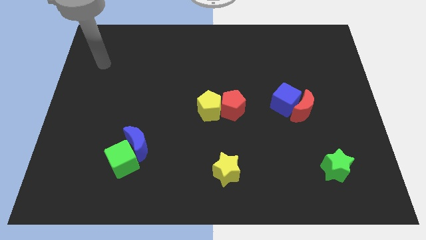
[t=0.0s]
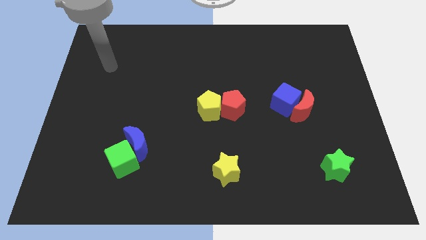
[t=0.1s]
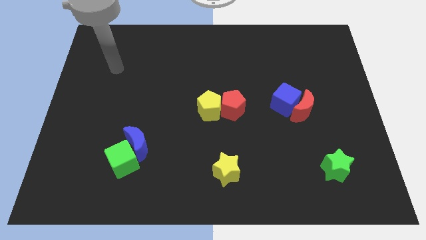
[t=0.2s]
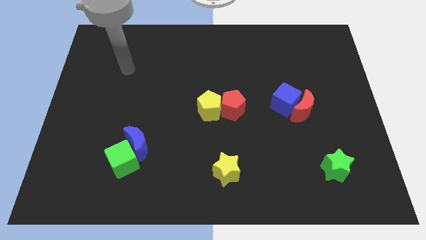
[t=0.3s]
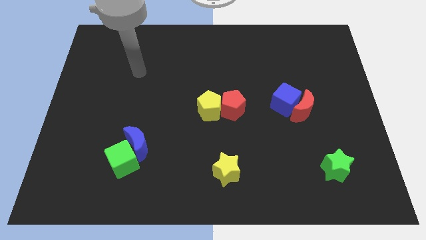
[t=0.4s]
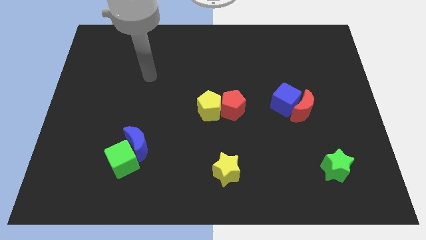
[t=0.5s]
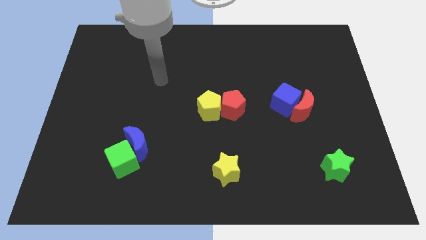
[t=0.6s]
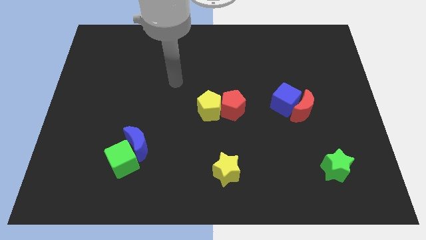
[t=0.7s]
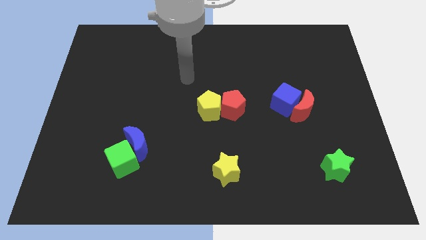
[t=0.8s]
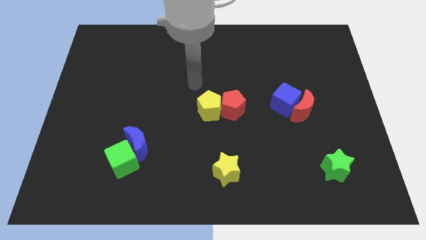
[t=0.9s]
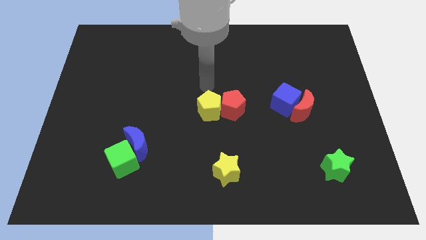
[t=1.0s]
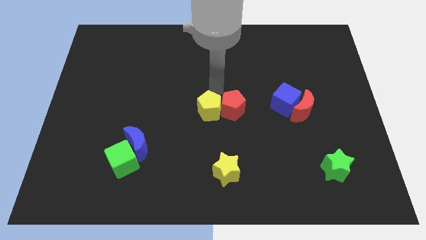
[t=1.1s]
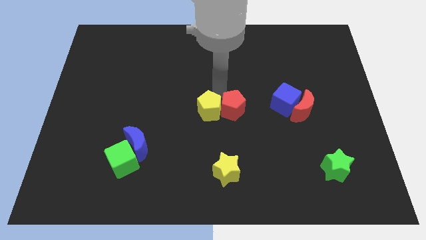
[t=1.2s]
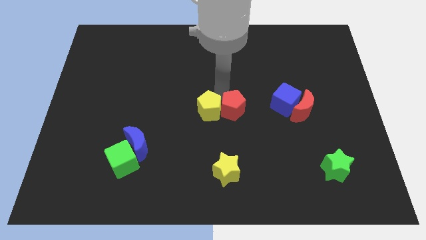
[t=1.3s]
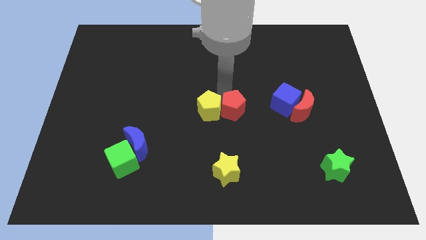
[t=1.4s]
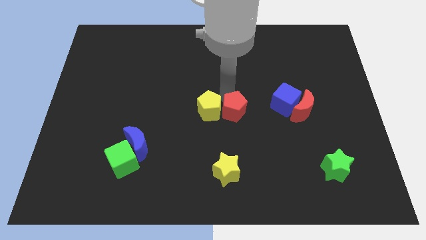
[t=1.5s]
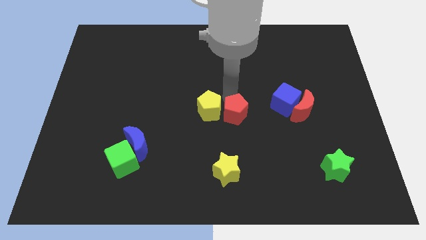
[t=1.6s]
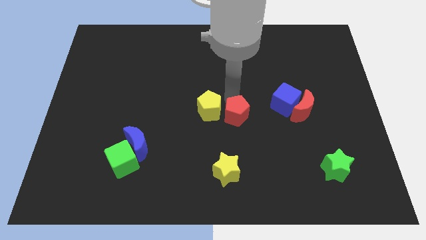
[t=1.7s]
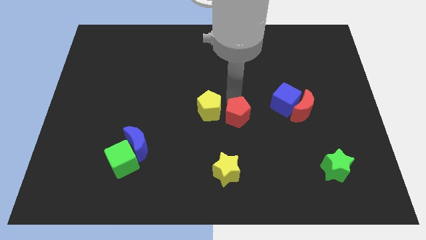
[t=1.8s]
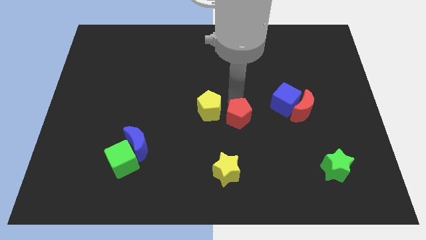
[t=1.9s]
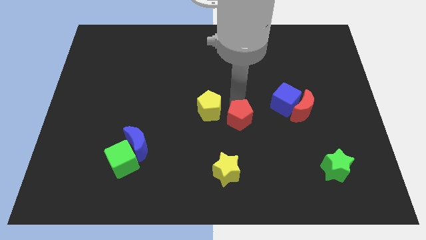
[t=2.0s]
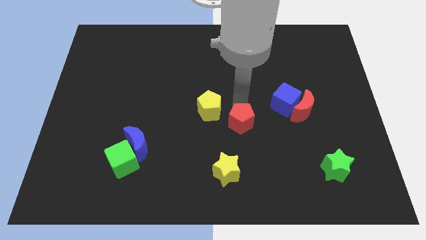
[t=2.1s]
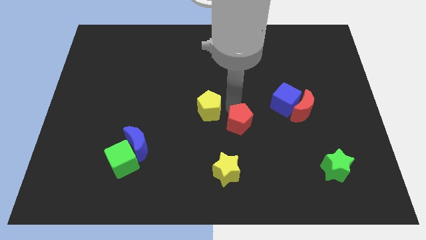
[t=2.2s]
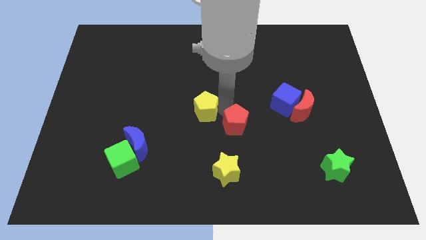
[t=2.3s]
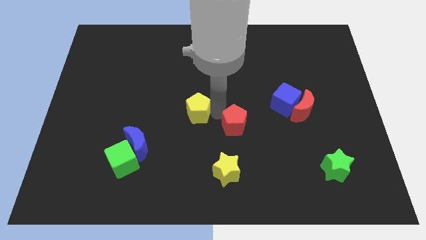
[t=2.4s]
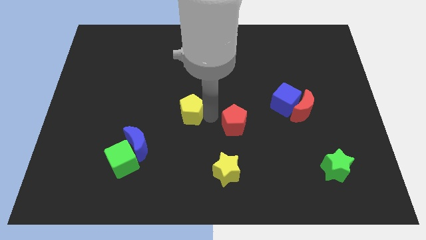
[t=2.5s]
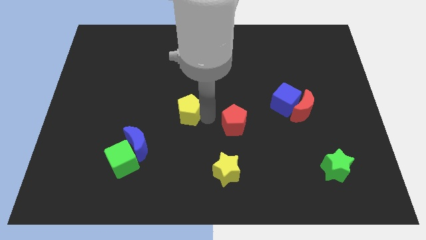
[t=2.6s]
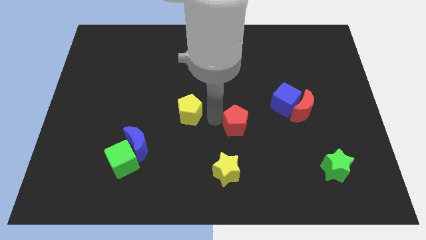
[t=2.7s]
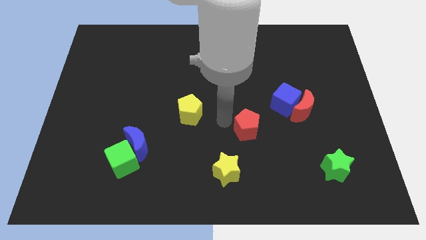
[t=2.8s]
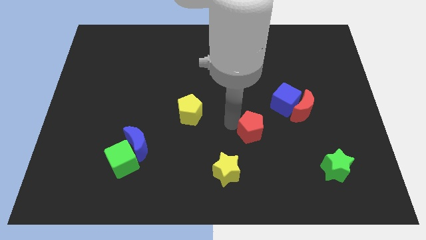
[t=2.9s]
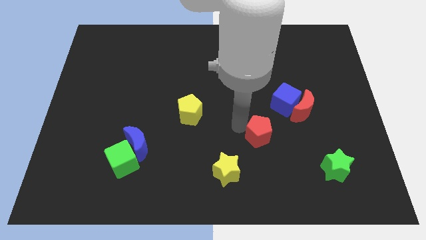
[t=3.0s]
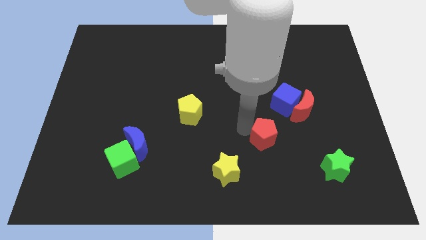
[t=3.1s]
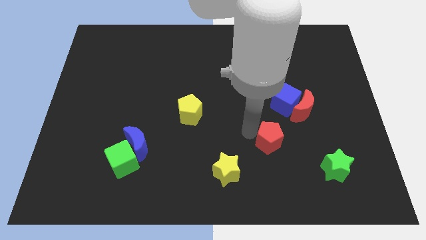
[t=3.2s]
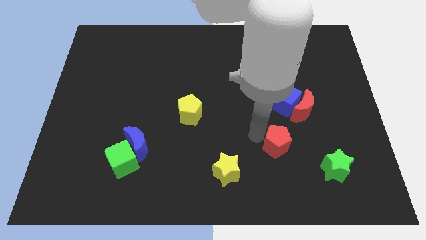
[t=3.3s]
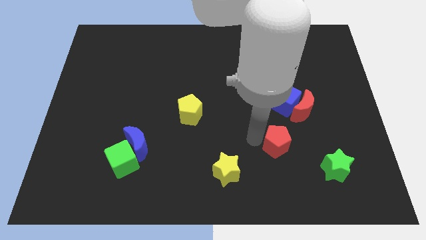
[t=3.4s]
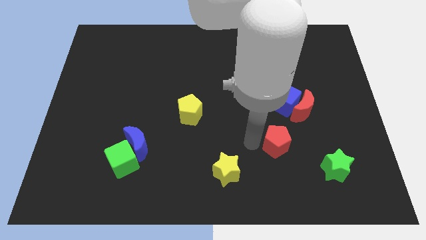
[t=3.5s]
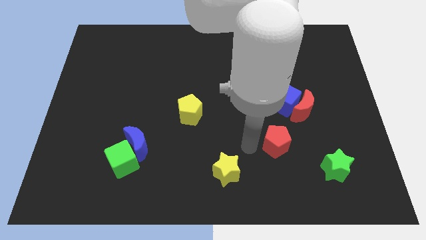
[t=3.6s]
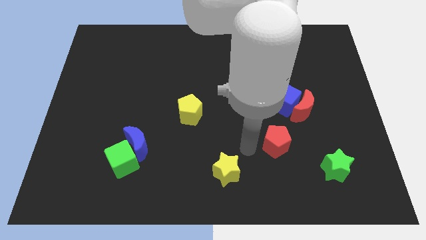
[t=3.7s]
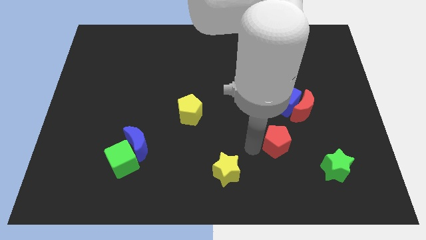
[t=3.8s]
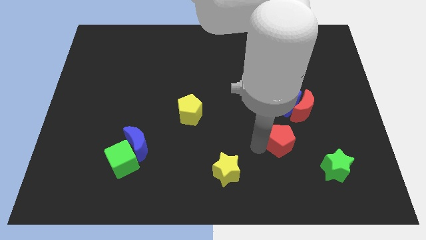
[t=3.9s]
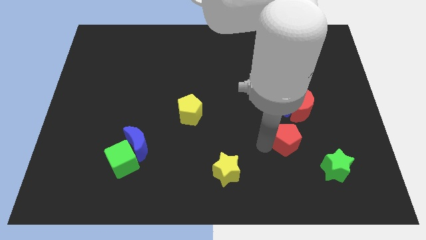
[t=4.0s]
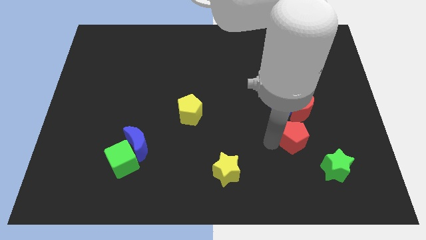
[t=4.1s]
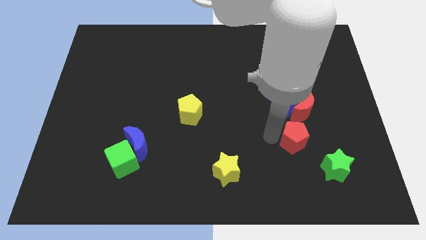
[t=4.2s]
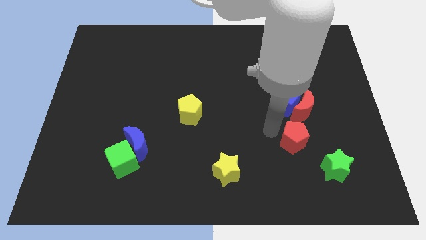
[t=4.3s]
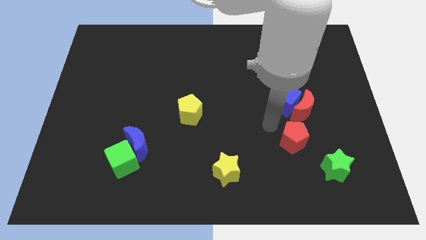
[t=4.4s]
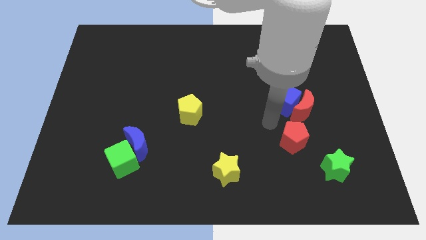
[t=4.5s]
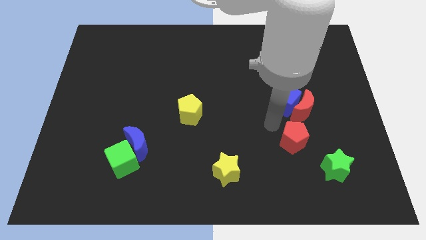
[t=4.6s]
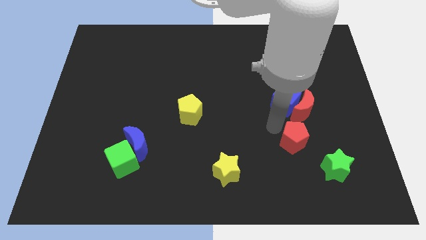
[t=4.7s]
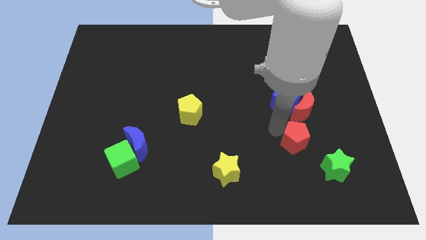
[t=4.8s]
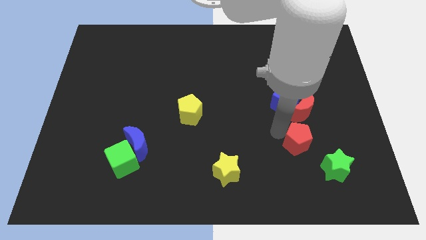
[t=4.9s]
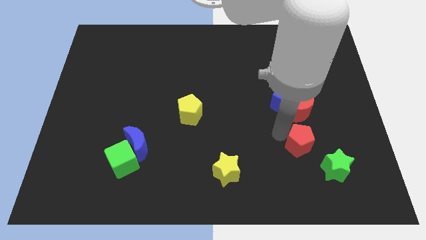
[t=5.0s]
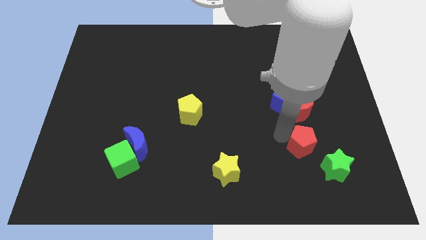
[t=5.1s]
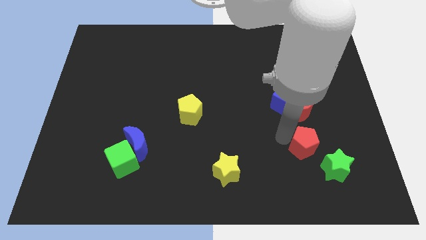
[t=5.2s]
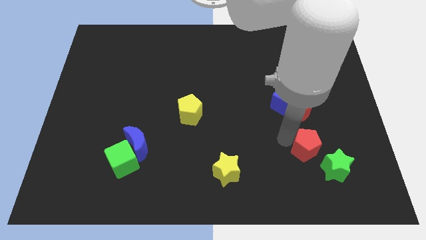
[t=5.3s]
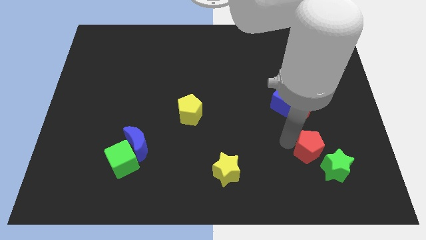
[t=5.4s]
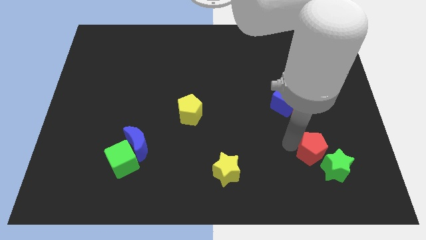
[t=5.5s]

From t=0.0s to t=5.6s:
put the red pentagon next to the green star

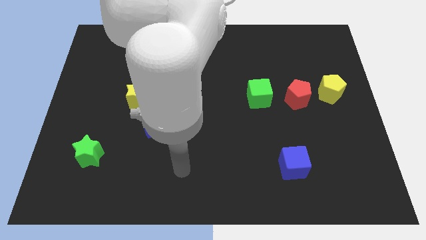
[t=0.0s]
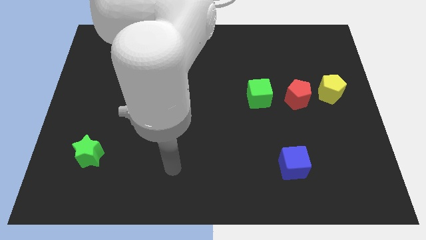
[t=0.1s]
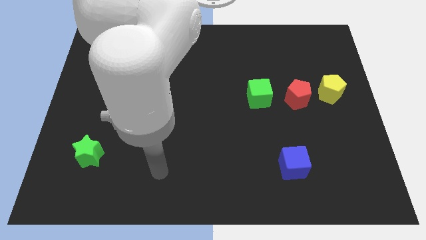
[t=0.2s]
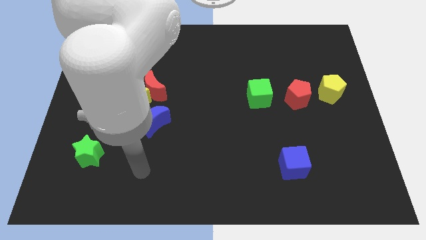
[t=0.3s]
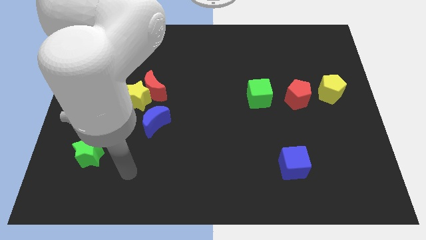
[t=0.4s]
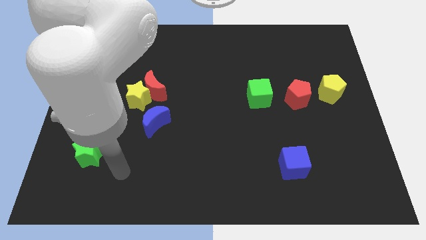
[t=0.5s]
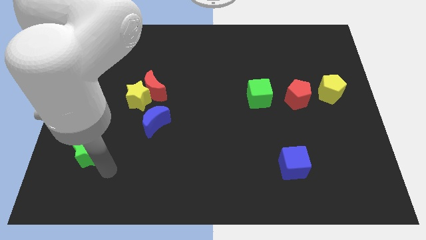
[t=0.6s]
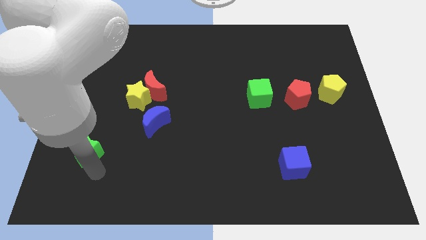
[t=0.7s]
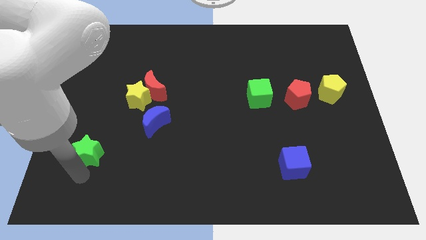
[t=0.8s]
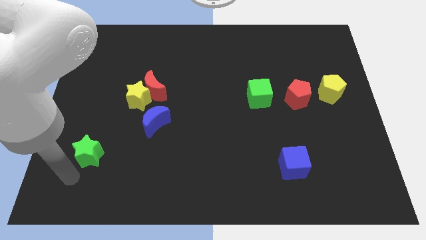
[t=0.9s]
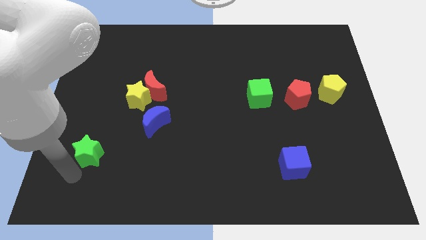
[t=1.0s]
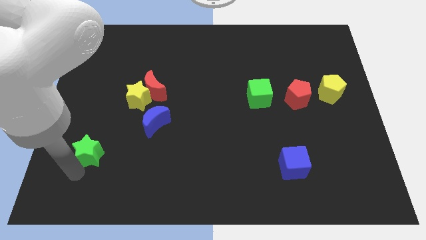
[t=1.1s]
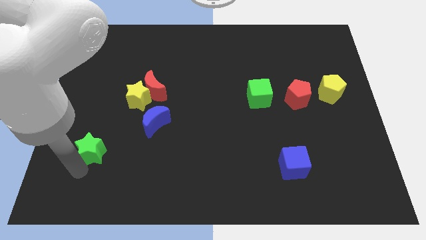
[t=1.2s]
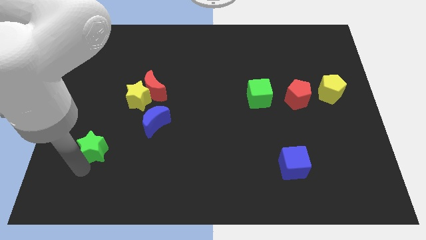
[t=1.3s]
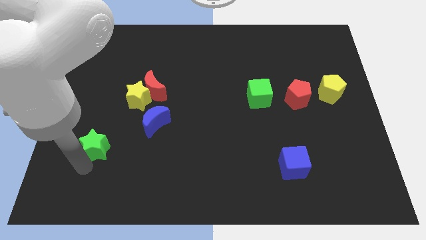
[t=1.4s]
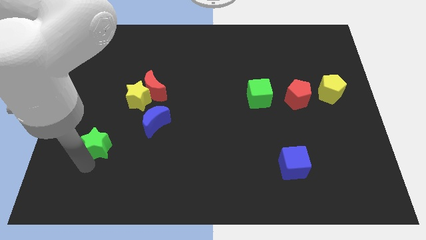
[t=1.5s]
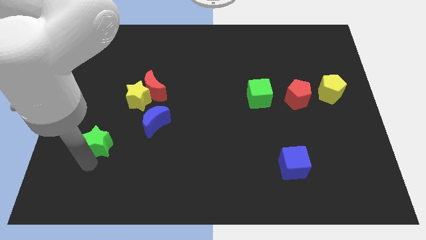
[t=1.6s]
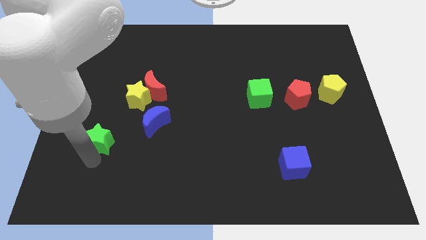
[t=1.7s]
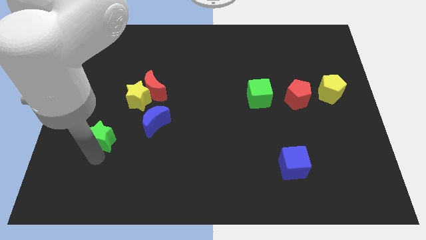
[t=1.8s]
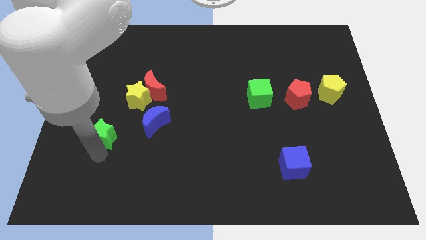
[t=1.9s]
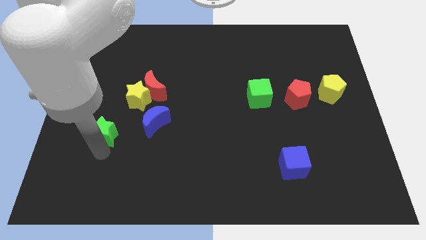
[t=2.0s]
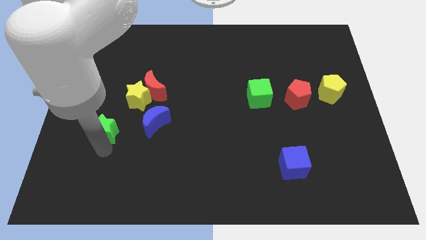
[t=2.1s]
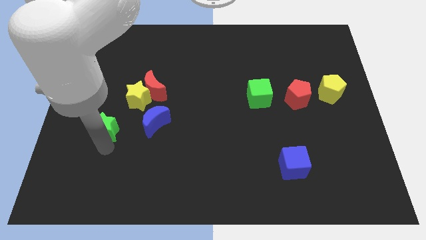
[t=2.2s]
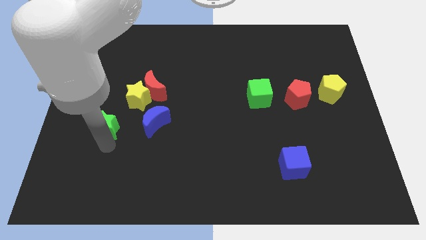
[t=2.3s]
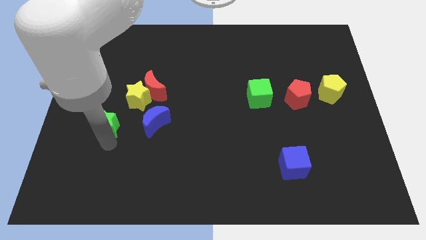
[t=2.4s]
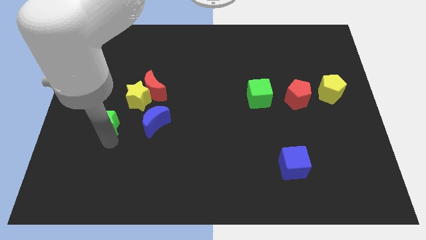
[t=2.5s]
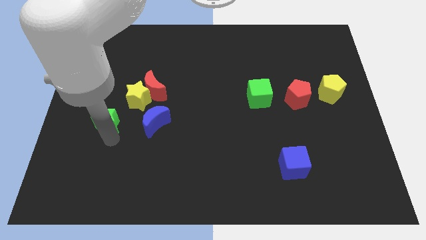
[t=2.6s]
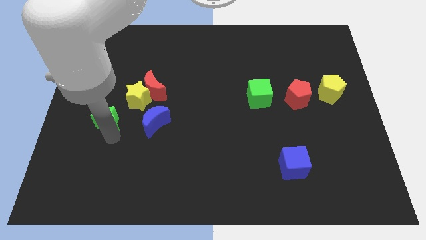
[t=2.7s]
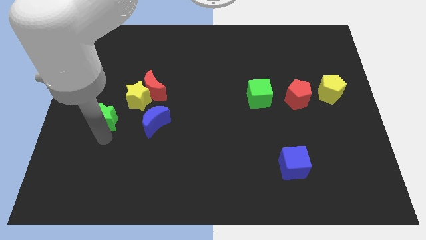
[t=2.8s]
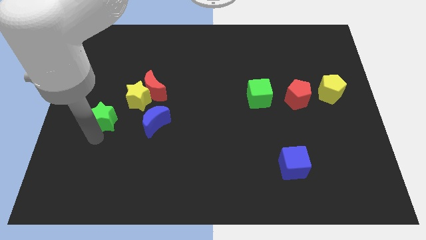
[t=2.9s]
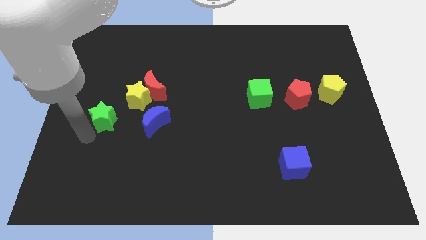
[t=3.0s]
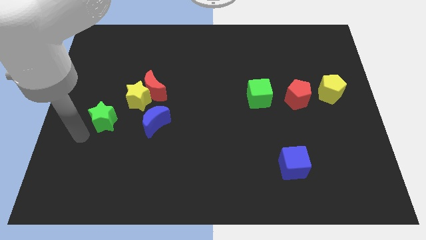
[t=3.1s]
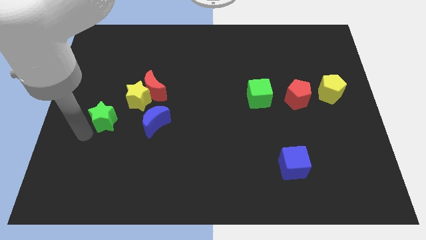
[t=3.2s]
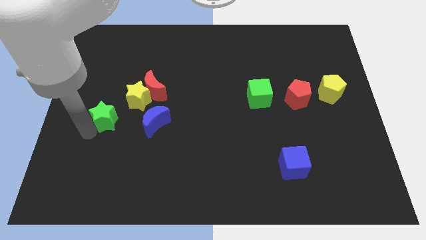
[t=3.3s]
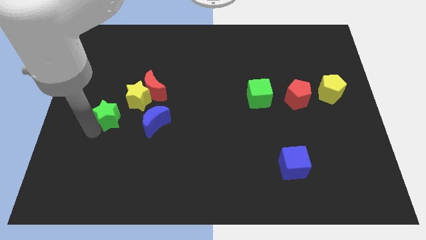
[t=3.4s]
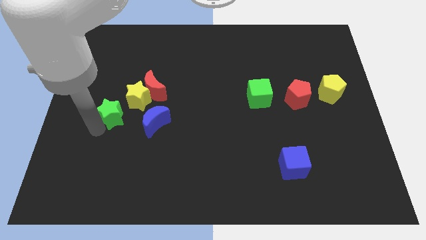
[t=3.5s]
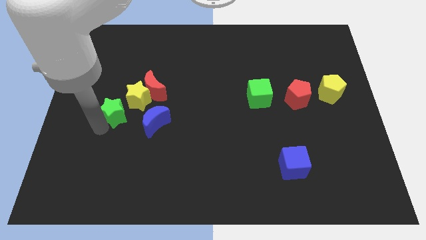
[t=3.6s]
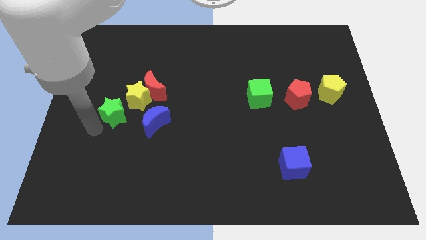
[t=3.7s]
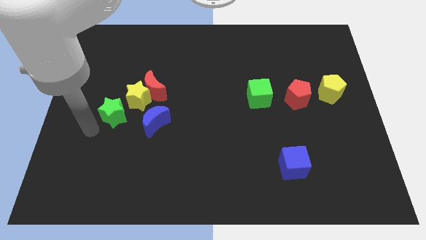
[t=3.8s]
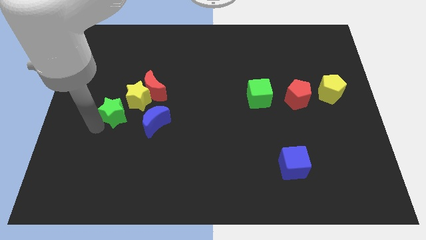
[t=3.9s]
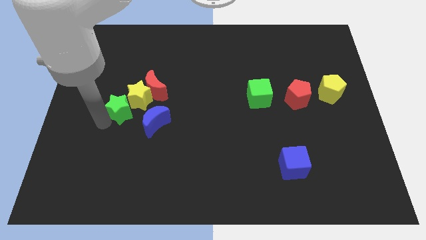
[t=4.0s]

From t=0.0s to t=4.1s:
move the green star close to the yellow star
